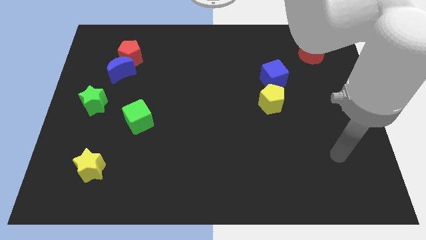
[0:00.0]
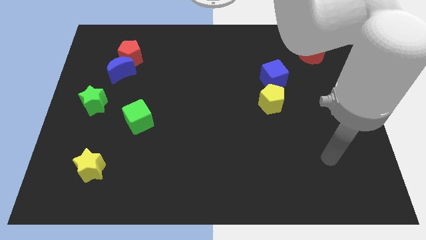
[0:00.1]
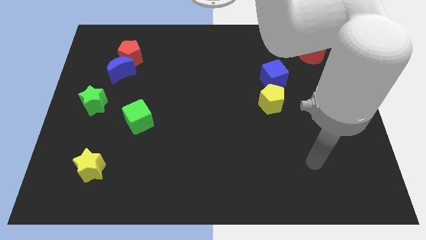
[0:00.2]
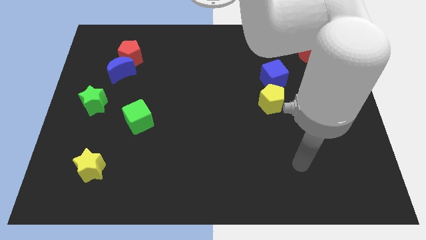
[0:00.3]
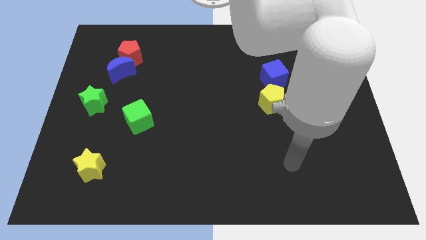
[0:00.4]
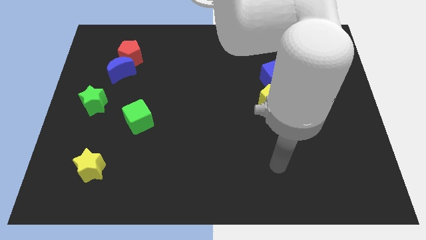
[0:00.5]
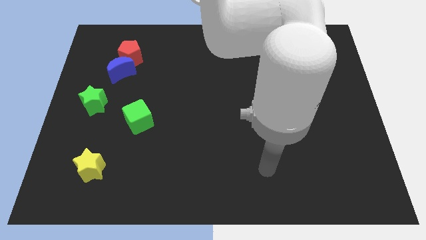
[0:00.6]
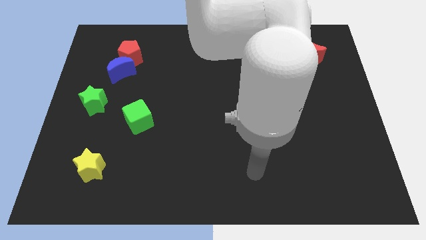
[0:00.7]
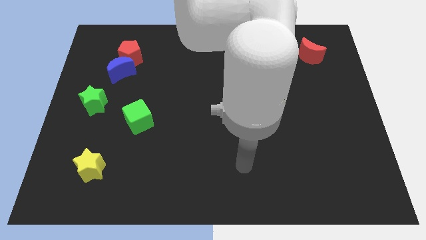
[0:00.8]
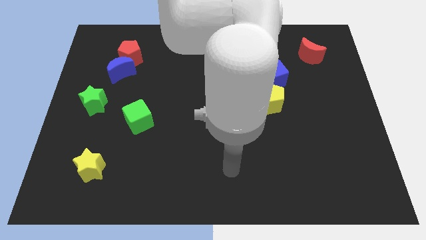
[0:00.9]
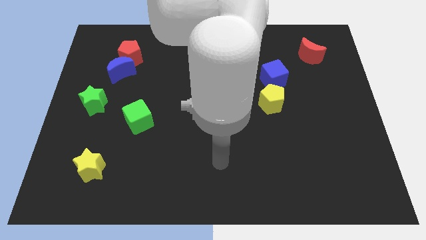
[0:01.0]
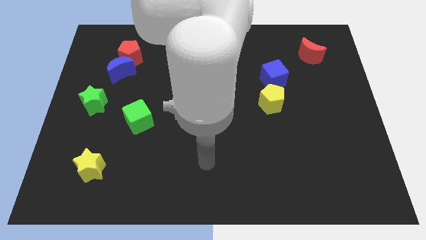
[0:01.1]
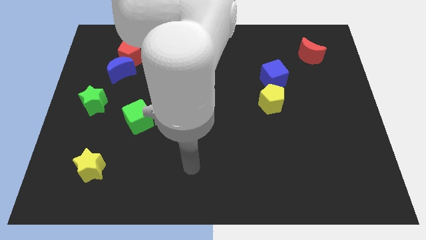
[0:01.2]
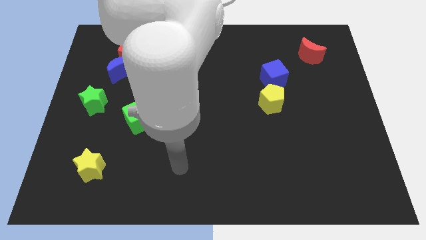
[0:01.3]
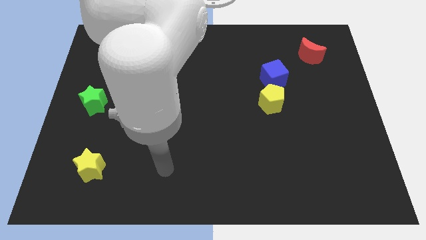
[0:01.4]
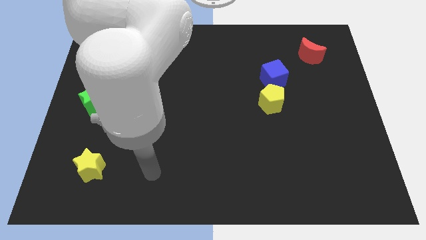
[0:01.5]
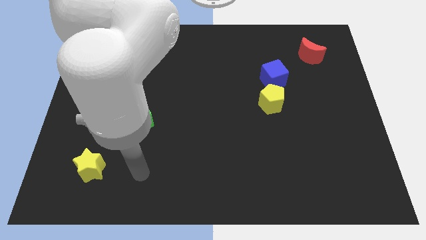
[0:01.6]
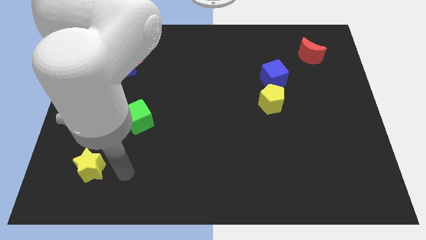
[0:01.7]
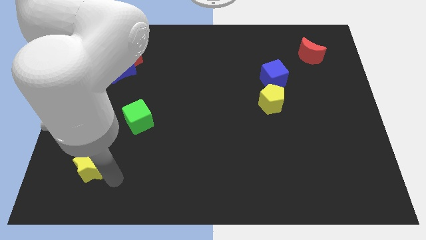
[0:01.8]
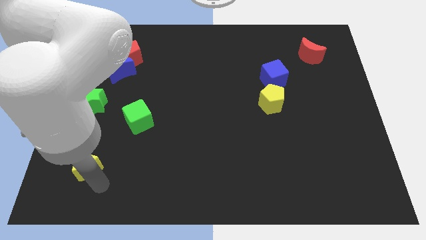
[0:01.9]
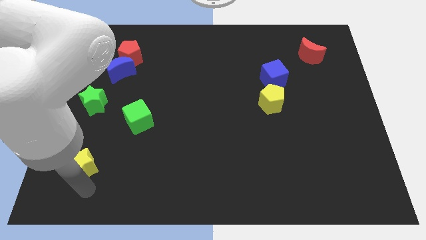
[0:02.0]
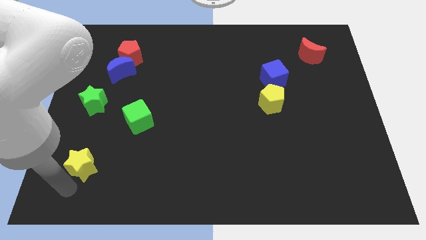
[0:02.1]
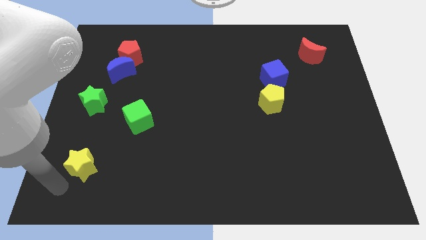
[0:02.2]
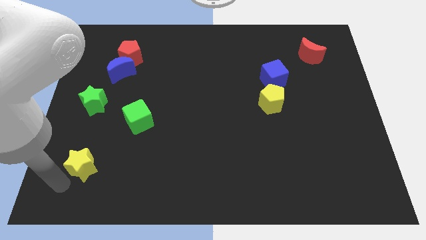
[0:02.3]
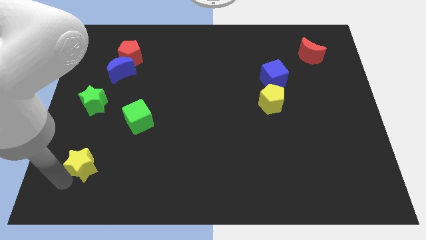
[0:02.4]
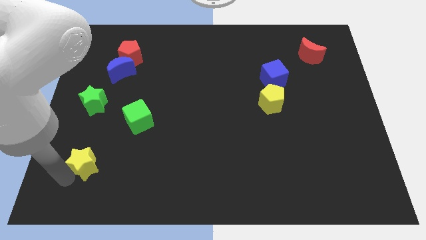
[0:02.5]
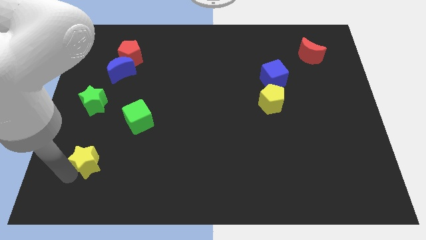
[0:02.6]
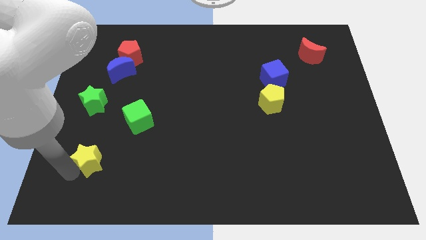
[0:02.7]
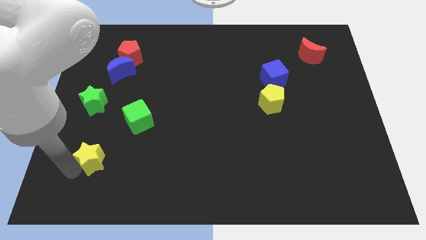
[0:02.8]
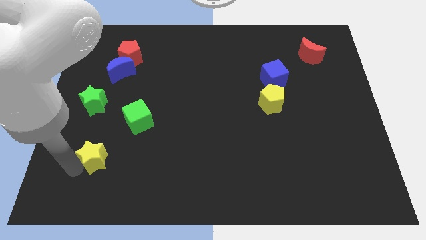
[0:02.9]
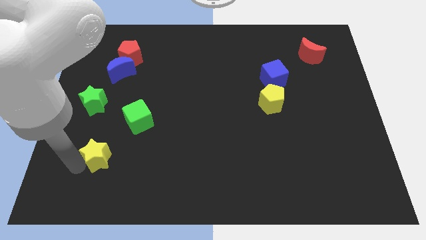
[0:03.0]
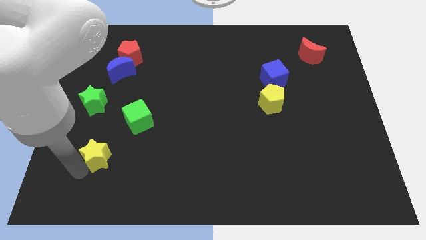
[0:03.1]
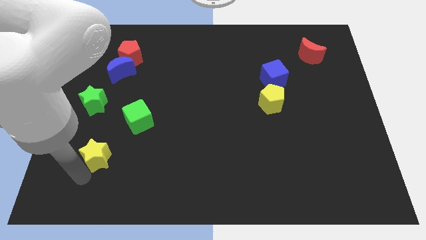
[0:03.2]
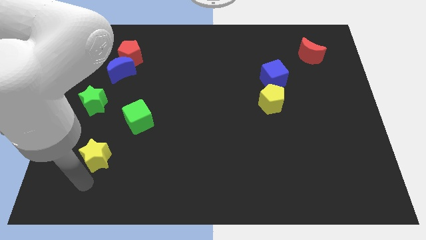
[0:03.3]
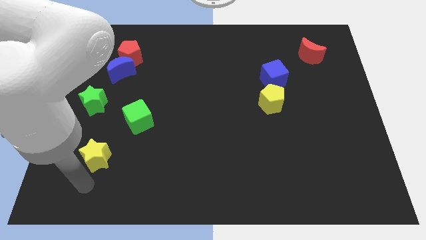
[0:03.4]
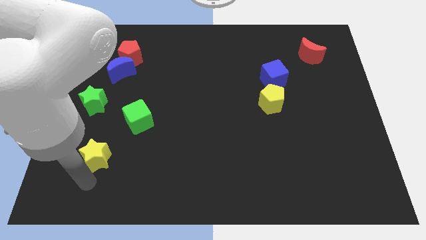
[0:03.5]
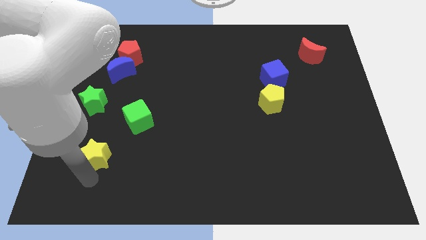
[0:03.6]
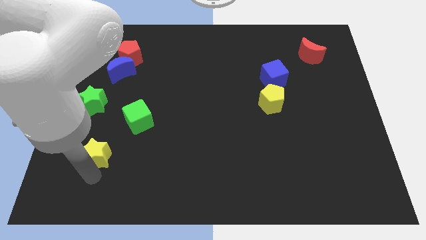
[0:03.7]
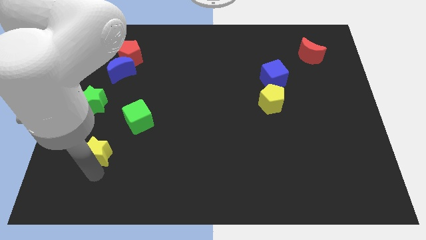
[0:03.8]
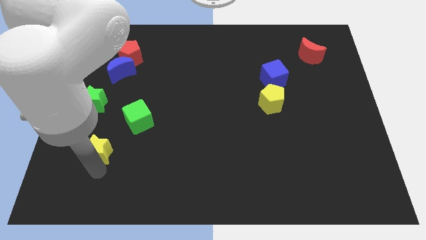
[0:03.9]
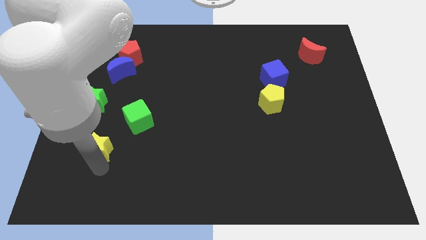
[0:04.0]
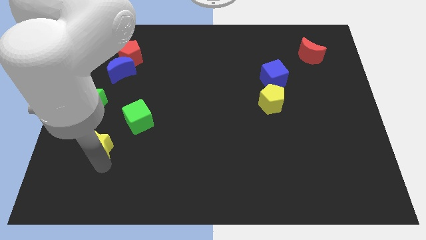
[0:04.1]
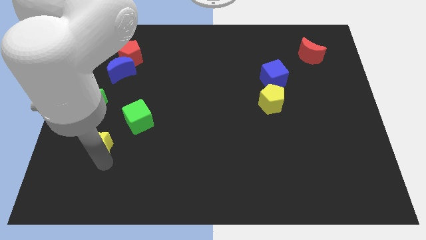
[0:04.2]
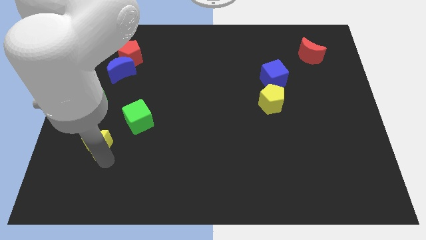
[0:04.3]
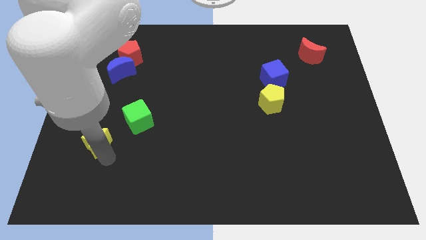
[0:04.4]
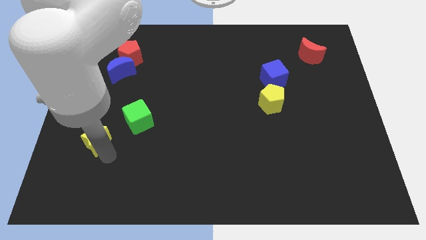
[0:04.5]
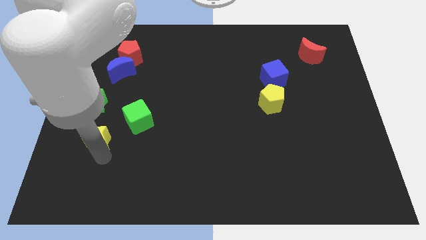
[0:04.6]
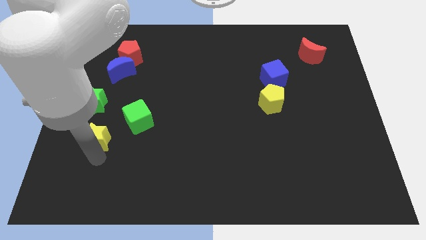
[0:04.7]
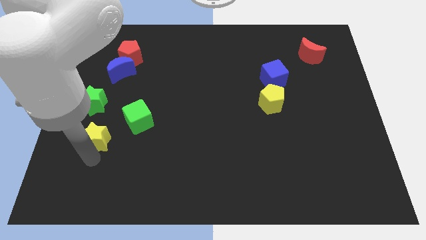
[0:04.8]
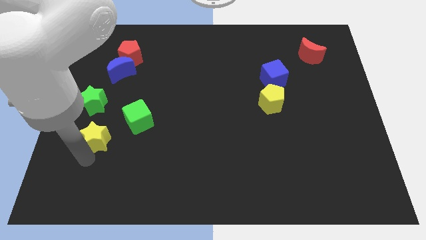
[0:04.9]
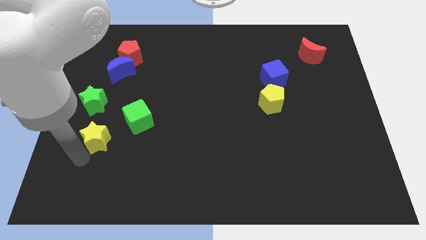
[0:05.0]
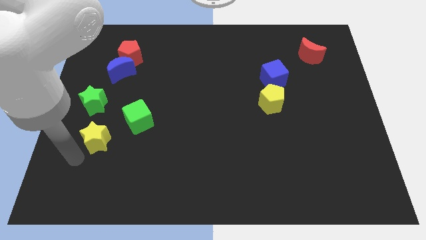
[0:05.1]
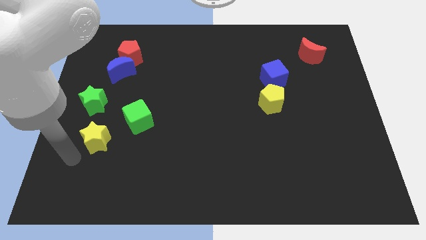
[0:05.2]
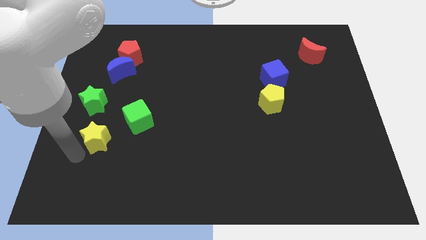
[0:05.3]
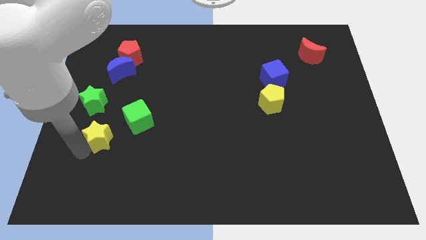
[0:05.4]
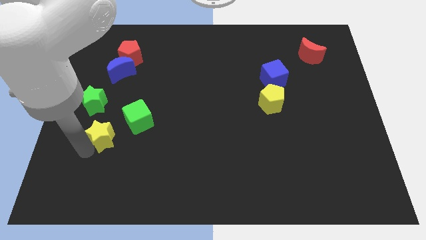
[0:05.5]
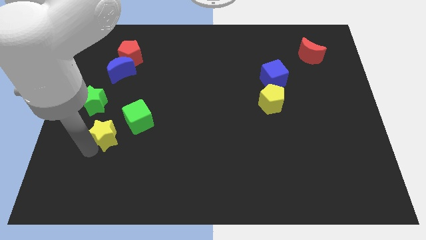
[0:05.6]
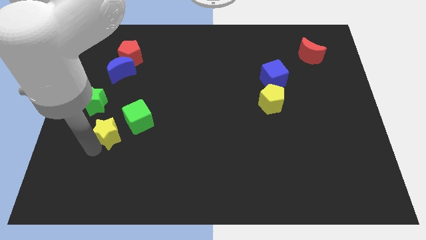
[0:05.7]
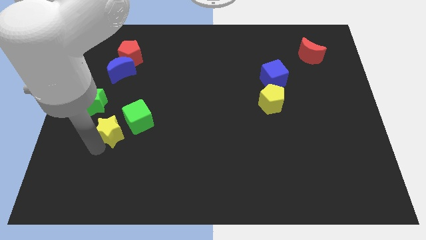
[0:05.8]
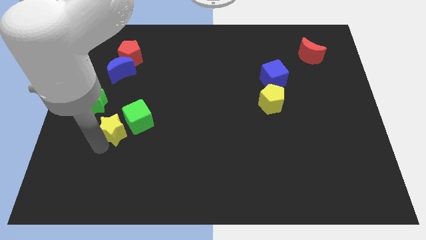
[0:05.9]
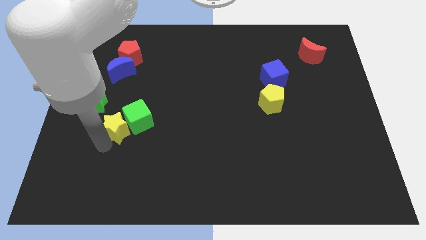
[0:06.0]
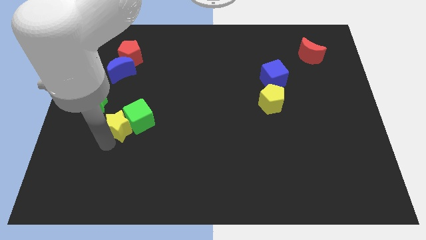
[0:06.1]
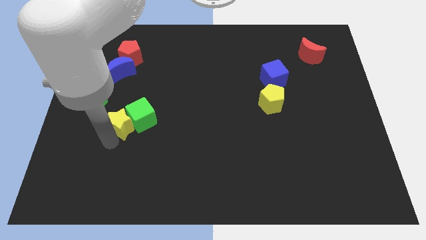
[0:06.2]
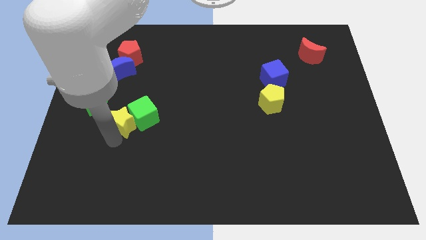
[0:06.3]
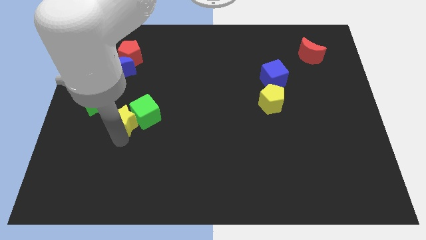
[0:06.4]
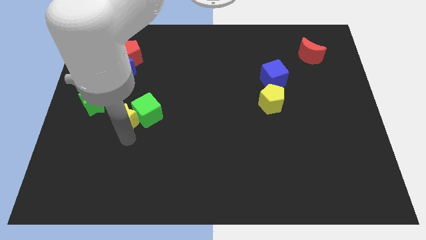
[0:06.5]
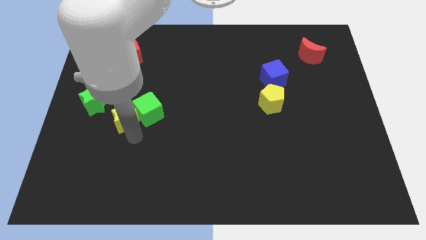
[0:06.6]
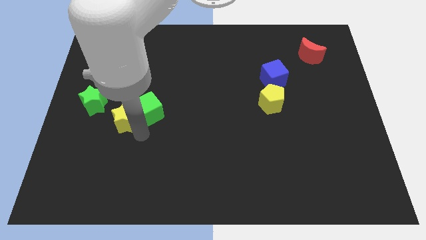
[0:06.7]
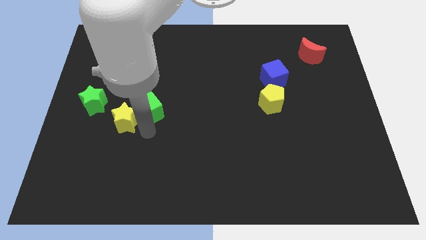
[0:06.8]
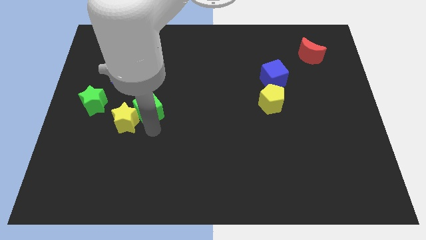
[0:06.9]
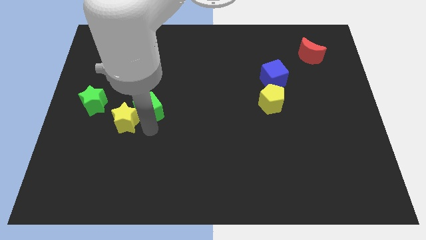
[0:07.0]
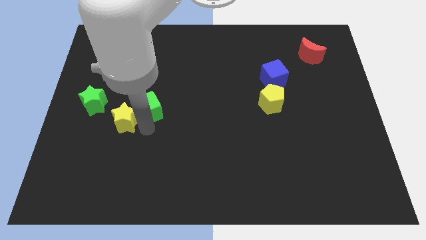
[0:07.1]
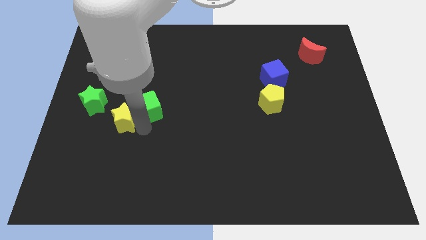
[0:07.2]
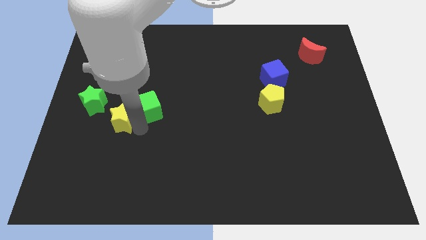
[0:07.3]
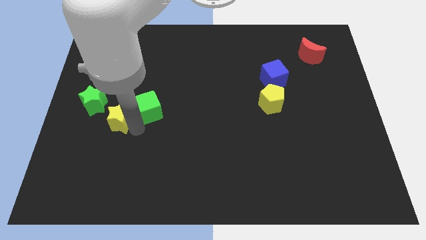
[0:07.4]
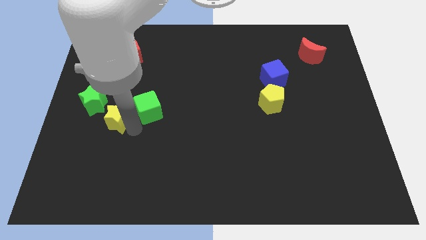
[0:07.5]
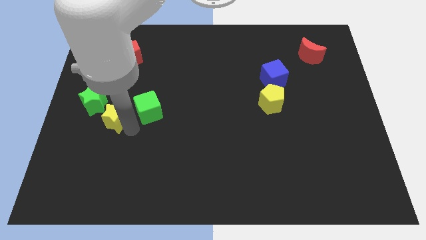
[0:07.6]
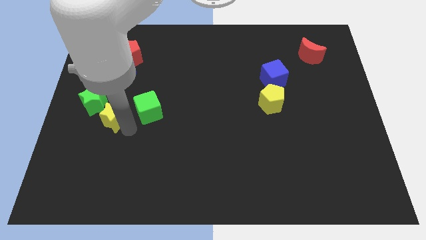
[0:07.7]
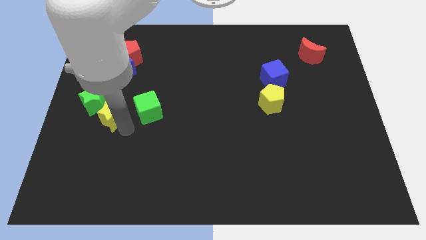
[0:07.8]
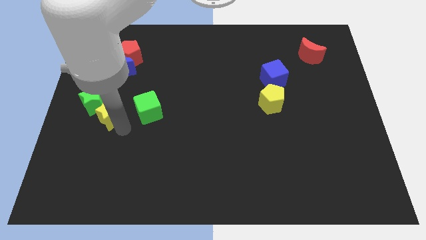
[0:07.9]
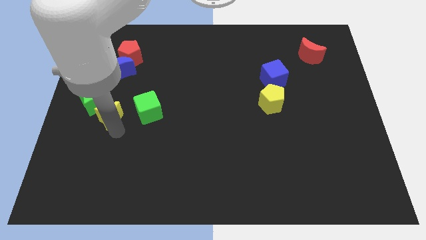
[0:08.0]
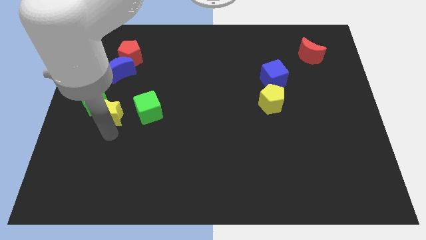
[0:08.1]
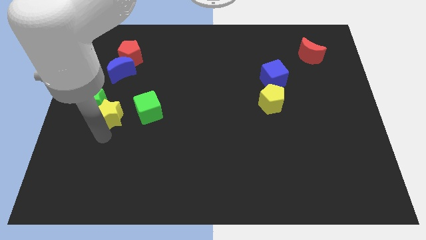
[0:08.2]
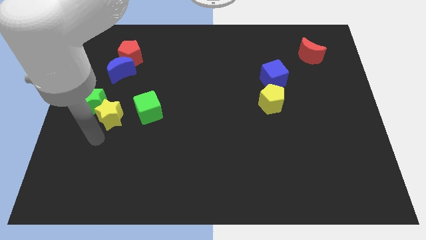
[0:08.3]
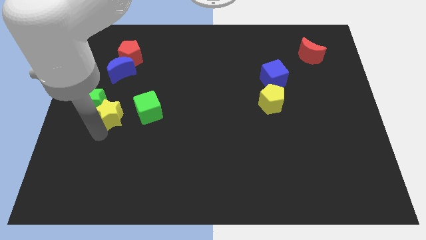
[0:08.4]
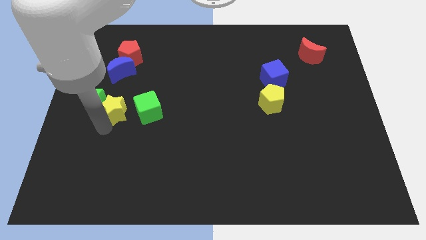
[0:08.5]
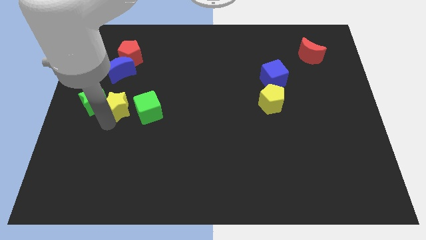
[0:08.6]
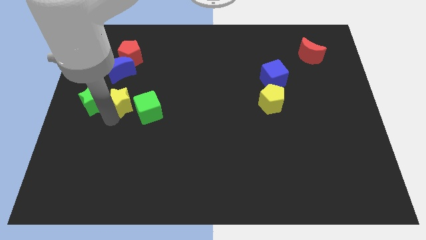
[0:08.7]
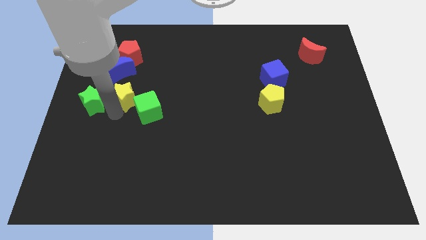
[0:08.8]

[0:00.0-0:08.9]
slide the yellow star to the bottom right side of the blue moon
